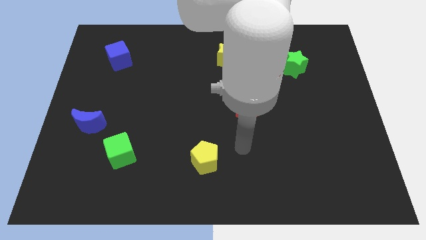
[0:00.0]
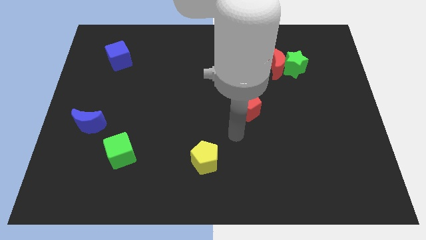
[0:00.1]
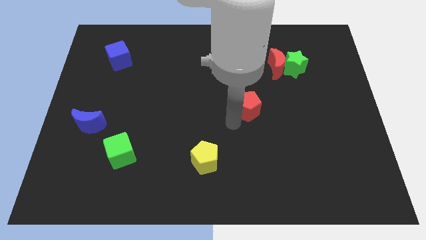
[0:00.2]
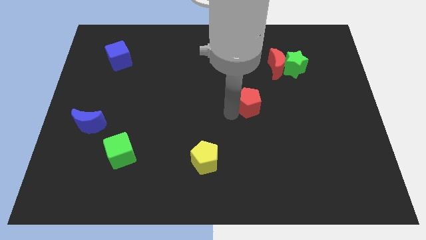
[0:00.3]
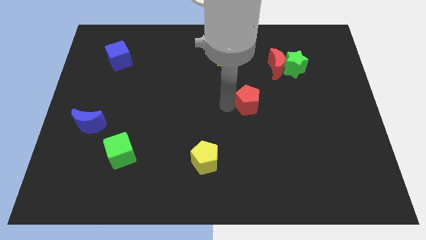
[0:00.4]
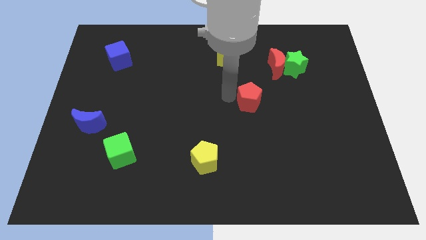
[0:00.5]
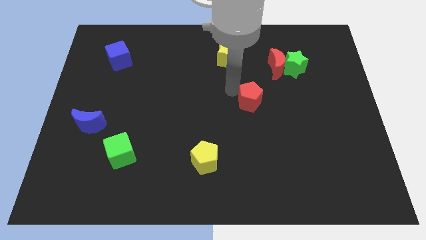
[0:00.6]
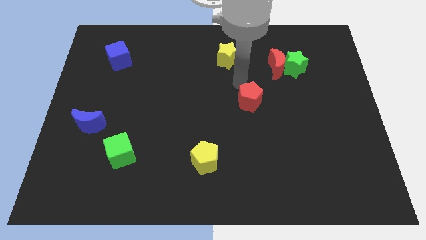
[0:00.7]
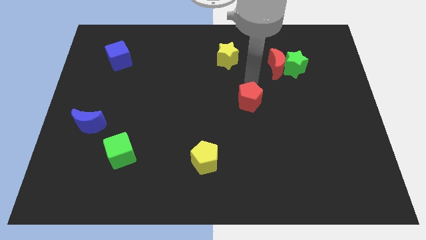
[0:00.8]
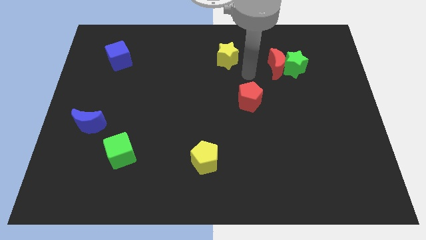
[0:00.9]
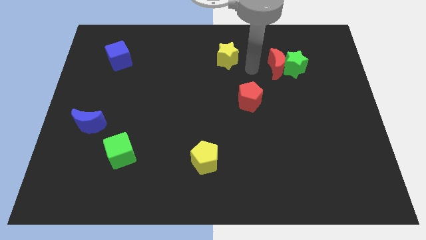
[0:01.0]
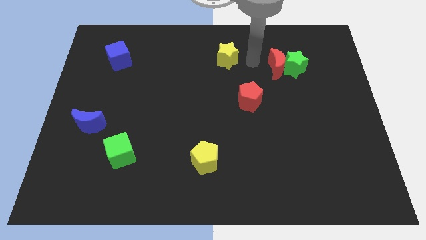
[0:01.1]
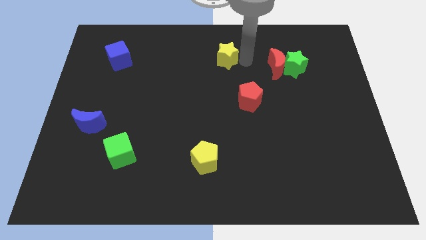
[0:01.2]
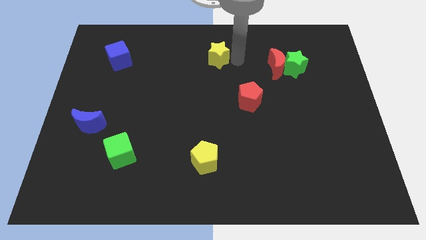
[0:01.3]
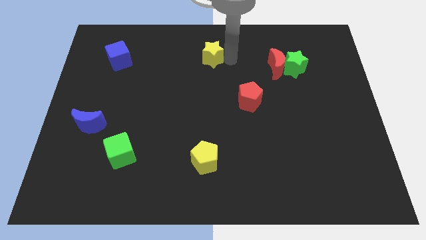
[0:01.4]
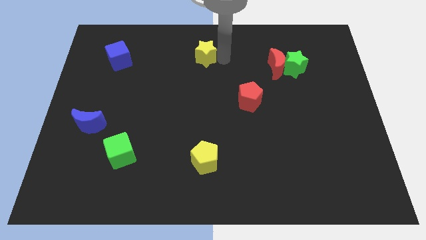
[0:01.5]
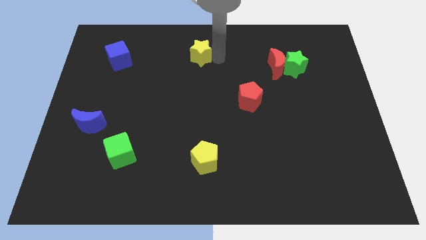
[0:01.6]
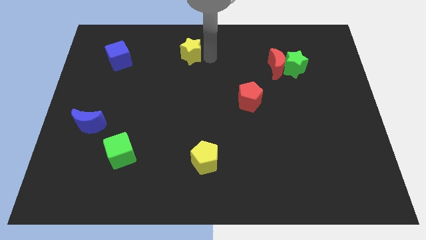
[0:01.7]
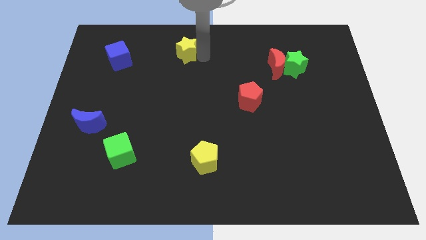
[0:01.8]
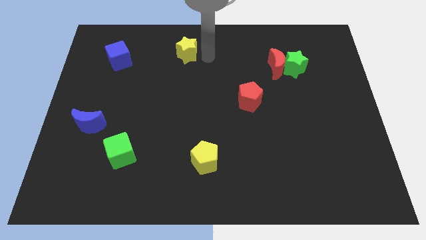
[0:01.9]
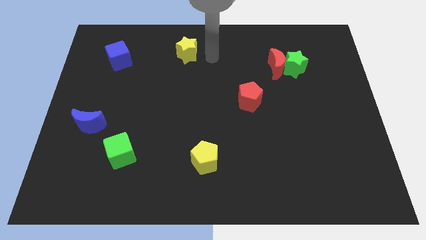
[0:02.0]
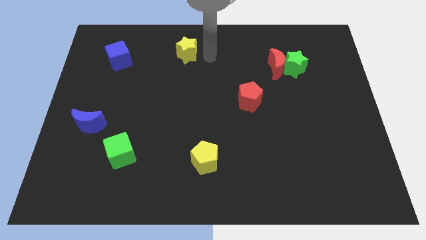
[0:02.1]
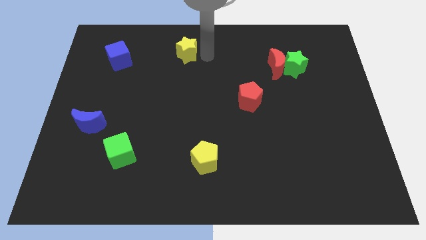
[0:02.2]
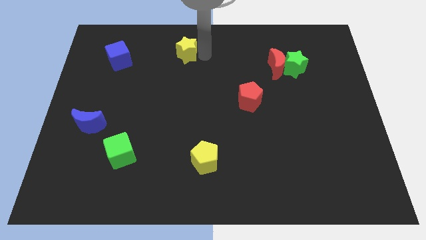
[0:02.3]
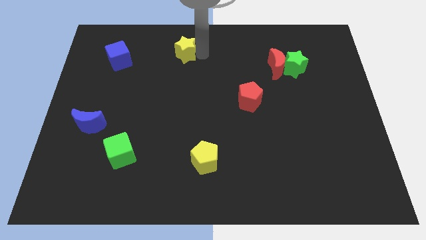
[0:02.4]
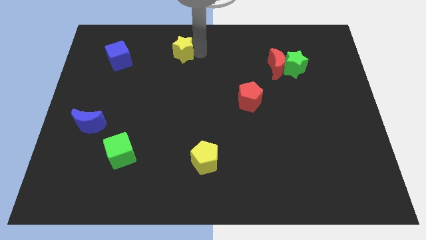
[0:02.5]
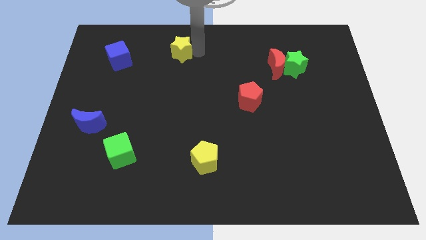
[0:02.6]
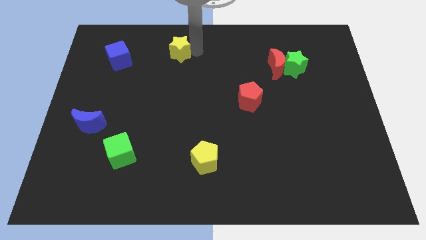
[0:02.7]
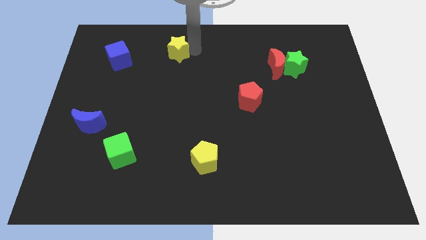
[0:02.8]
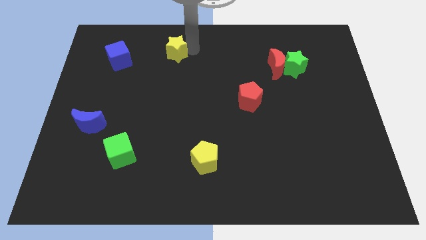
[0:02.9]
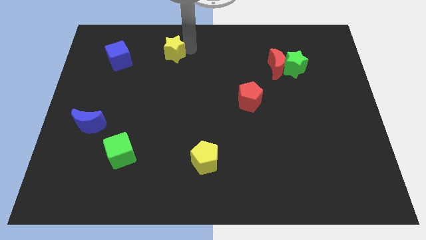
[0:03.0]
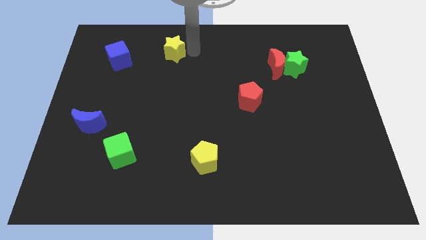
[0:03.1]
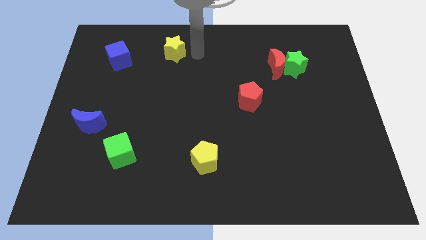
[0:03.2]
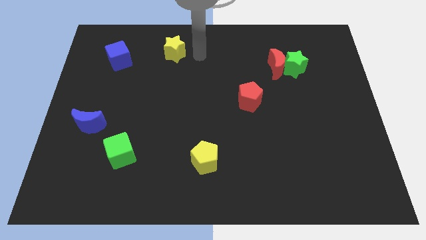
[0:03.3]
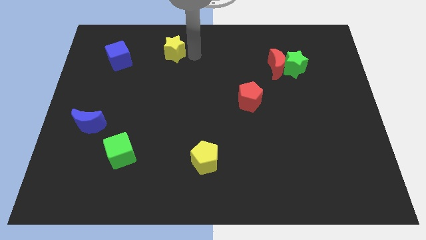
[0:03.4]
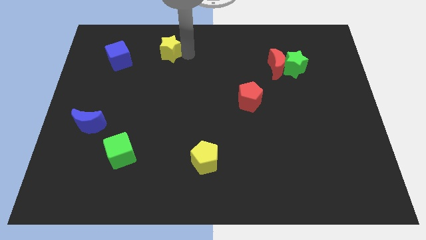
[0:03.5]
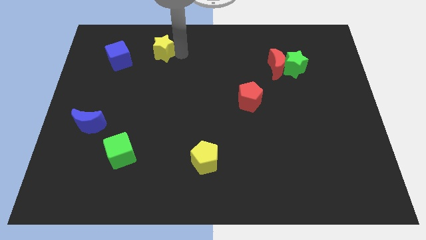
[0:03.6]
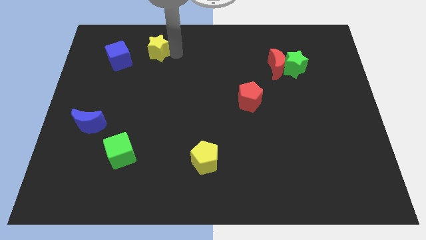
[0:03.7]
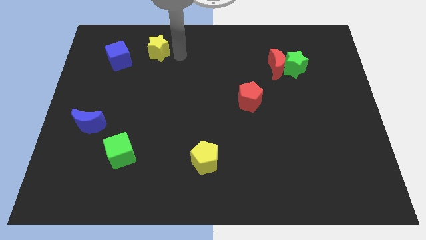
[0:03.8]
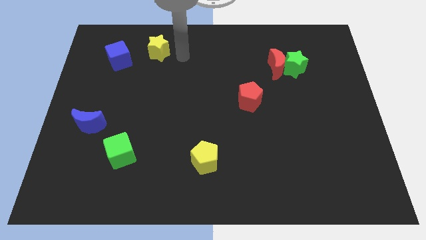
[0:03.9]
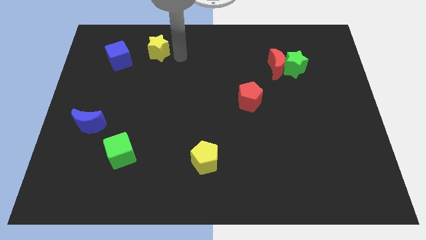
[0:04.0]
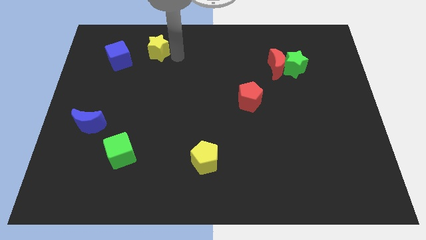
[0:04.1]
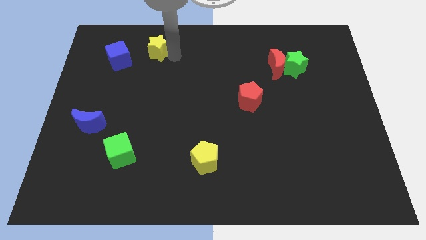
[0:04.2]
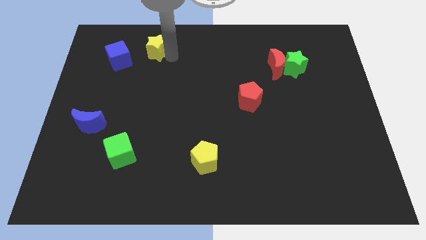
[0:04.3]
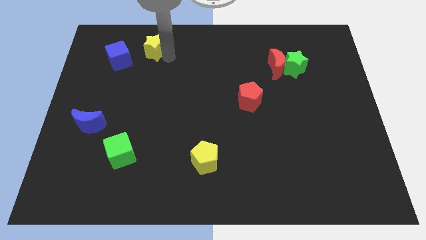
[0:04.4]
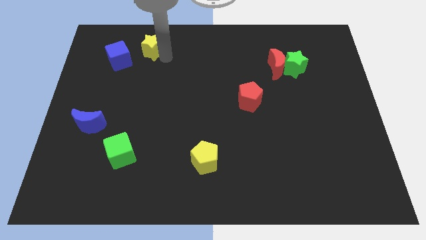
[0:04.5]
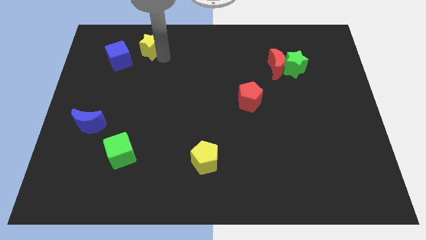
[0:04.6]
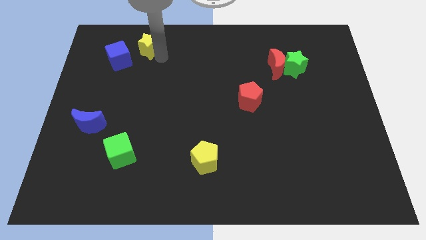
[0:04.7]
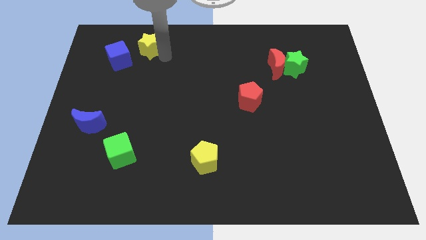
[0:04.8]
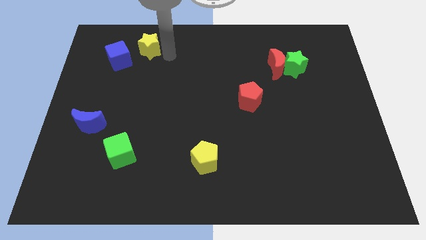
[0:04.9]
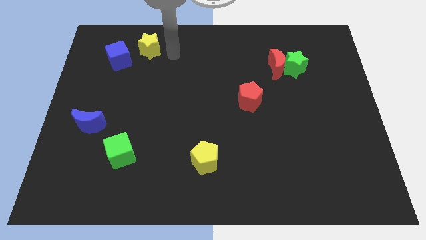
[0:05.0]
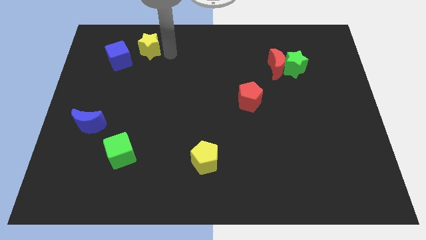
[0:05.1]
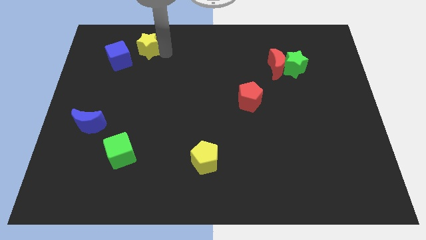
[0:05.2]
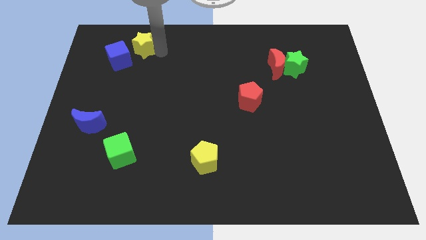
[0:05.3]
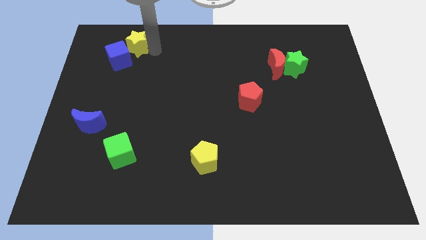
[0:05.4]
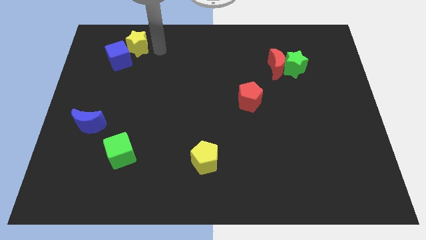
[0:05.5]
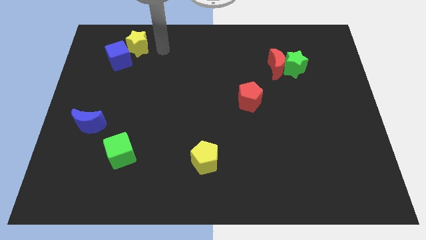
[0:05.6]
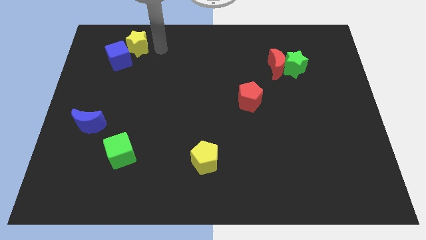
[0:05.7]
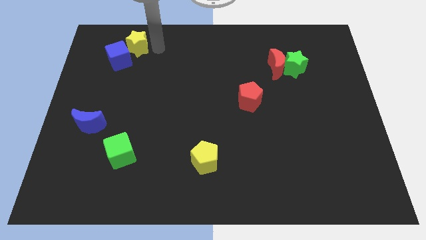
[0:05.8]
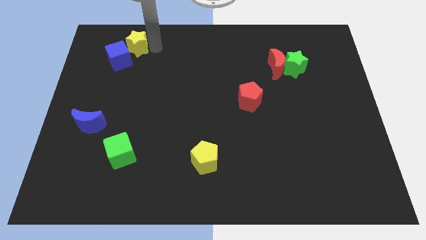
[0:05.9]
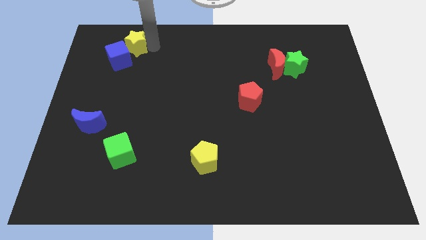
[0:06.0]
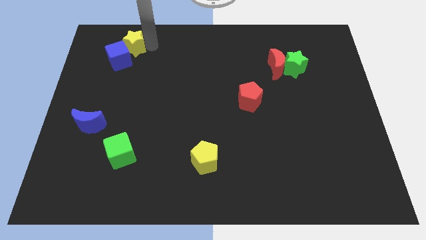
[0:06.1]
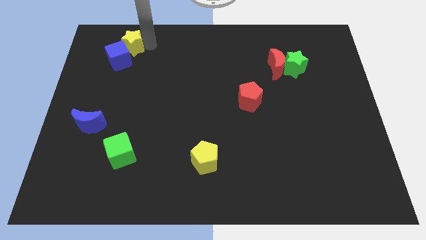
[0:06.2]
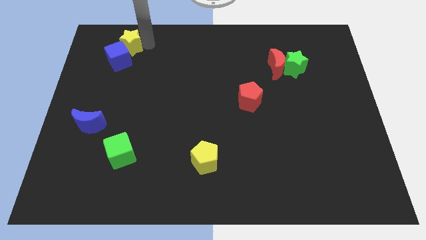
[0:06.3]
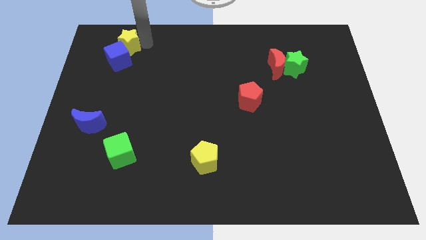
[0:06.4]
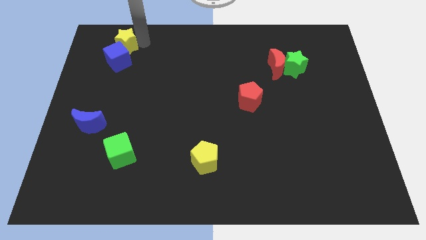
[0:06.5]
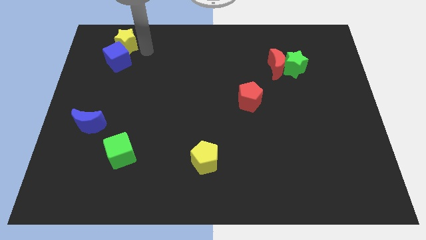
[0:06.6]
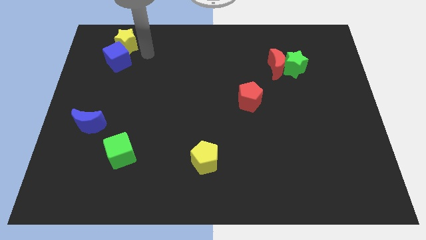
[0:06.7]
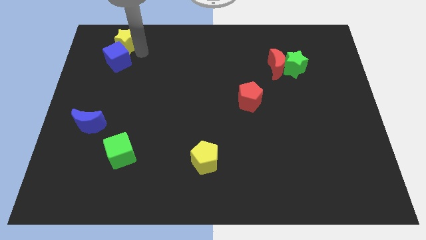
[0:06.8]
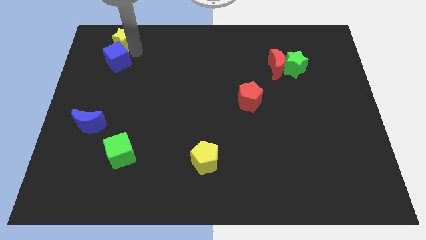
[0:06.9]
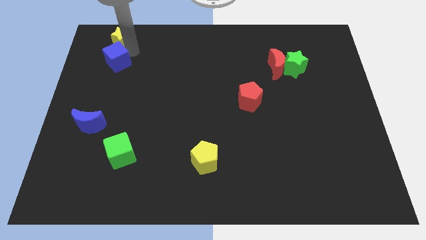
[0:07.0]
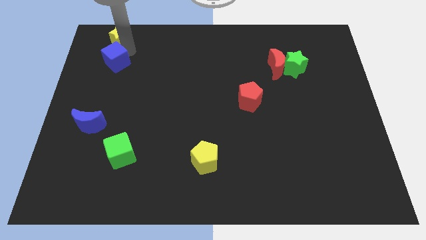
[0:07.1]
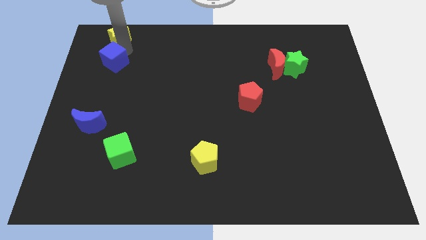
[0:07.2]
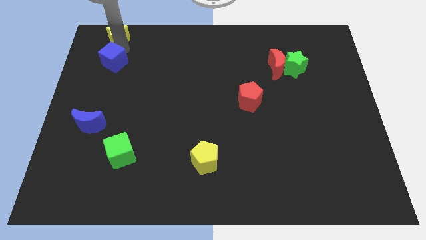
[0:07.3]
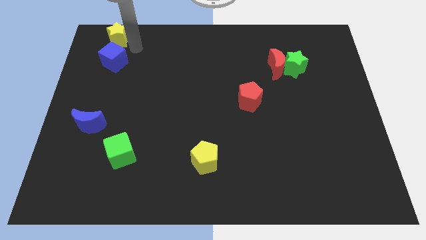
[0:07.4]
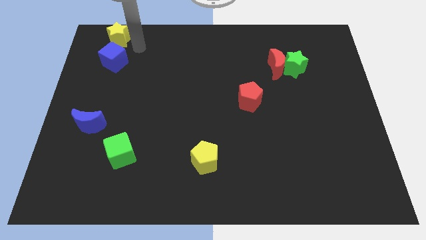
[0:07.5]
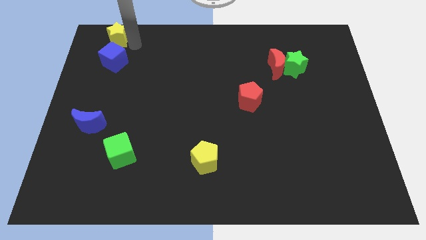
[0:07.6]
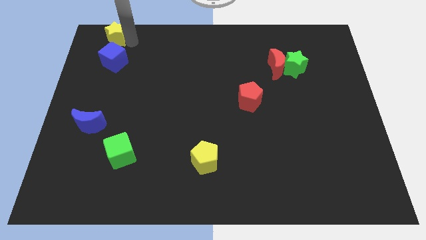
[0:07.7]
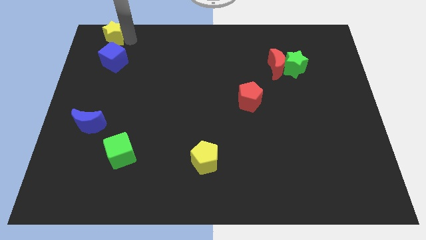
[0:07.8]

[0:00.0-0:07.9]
move the yellow star to the top left
